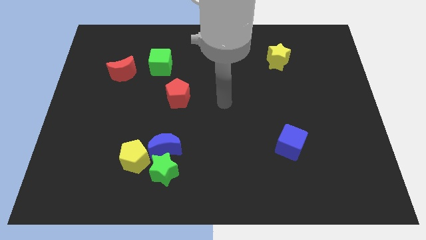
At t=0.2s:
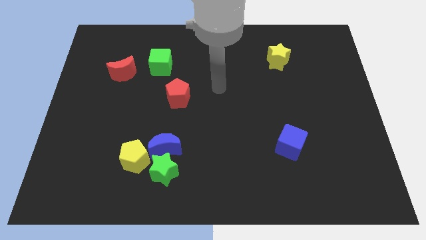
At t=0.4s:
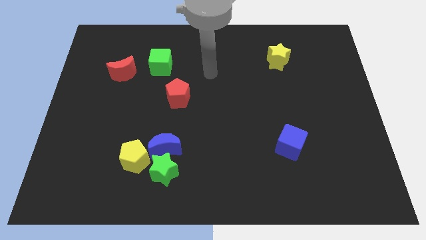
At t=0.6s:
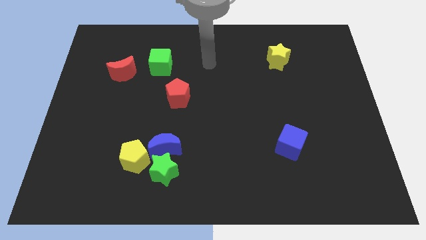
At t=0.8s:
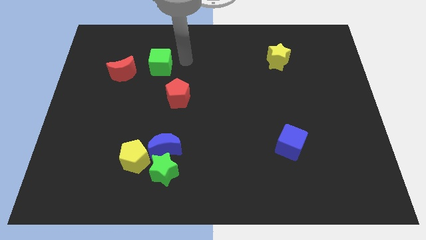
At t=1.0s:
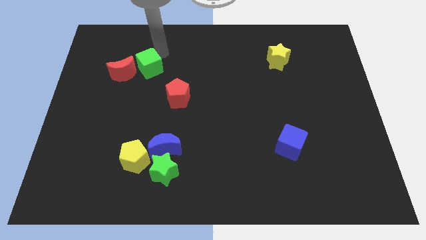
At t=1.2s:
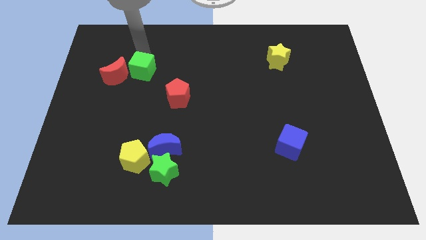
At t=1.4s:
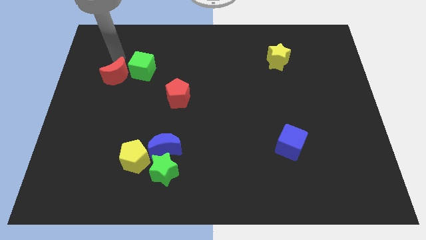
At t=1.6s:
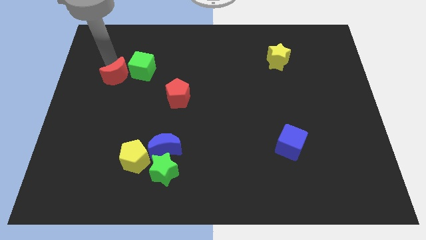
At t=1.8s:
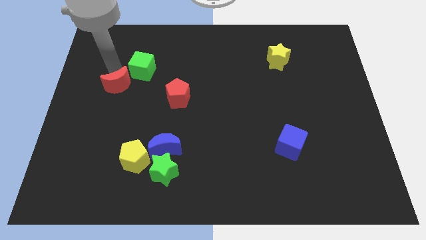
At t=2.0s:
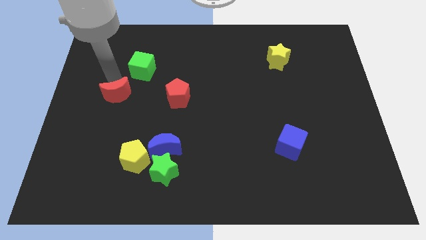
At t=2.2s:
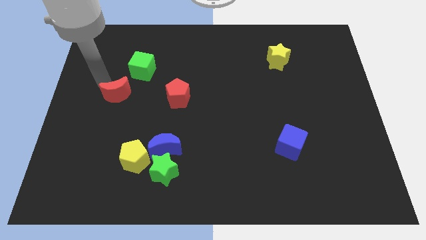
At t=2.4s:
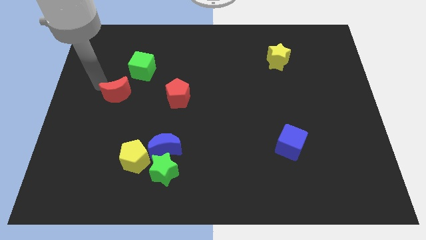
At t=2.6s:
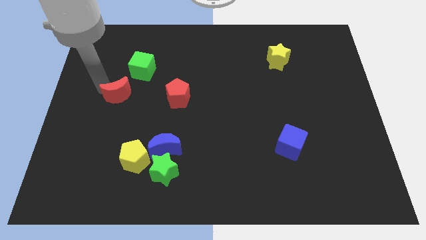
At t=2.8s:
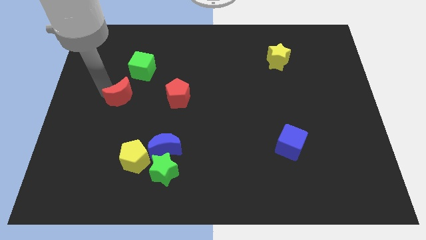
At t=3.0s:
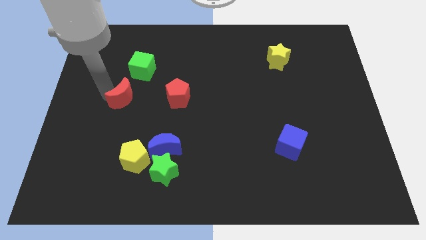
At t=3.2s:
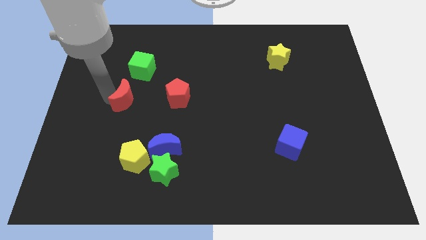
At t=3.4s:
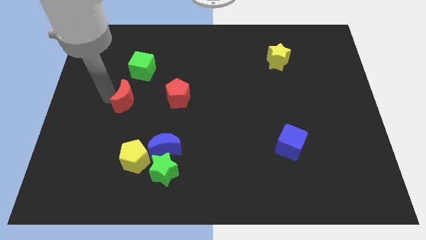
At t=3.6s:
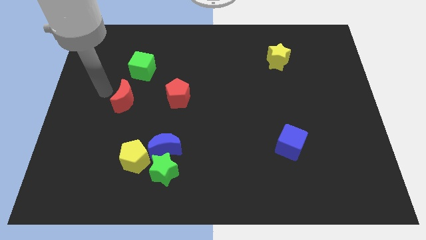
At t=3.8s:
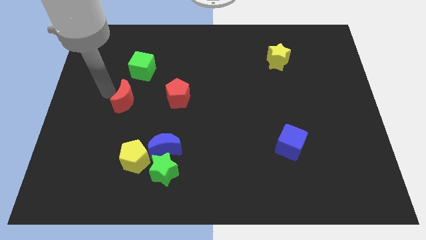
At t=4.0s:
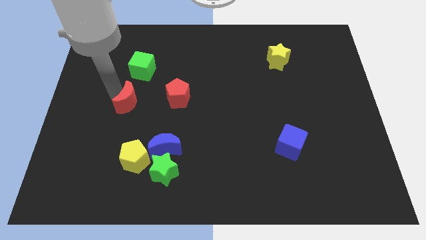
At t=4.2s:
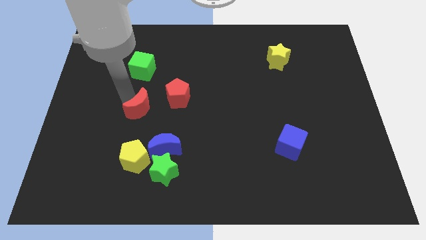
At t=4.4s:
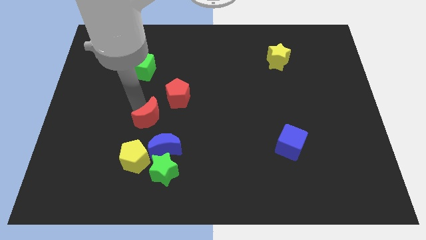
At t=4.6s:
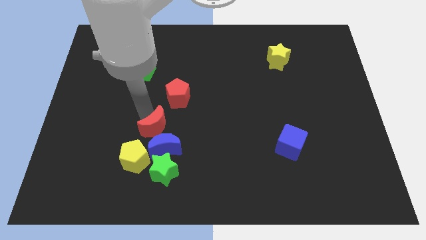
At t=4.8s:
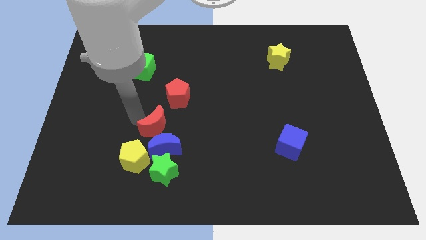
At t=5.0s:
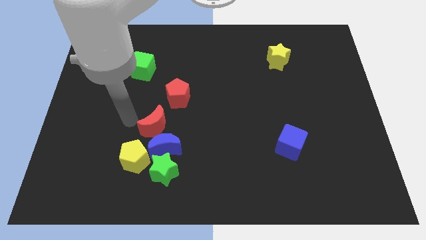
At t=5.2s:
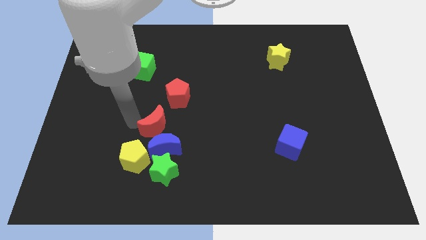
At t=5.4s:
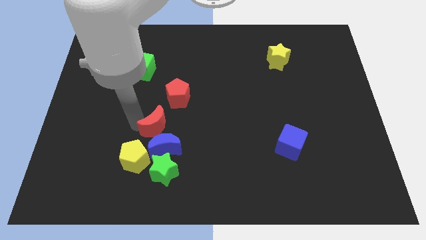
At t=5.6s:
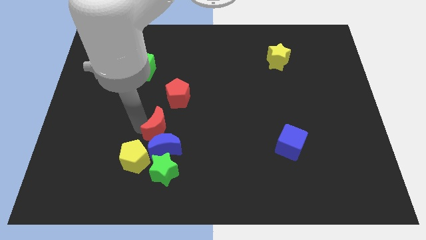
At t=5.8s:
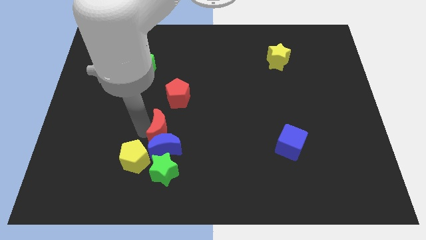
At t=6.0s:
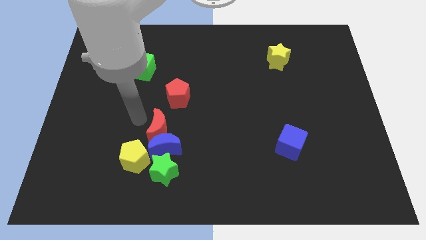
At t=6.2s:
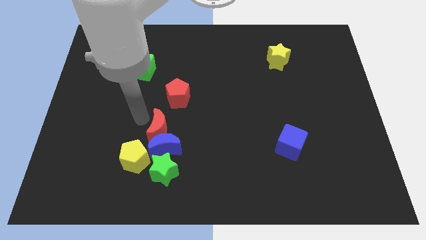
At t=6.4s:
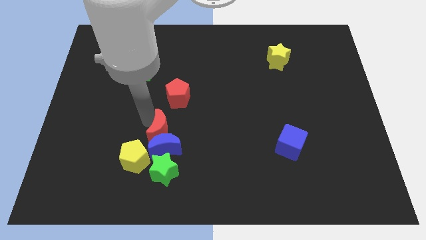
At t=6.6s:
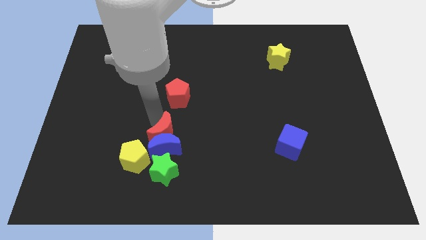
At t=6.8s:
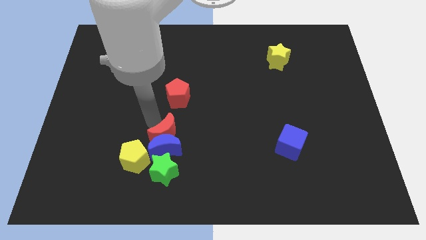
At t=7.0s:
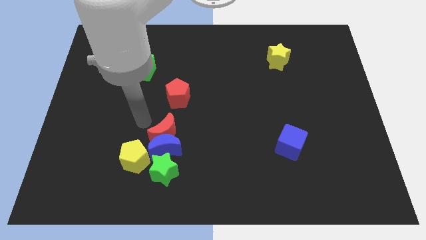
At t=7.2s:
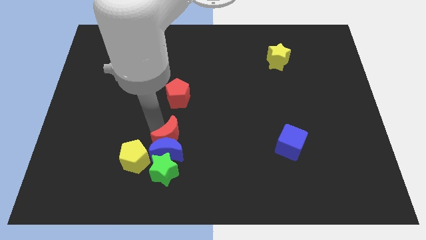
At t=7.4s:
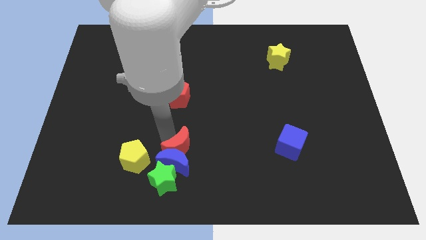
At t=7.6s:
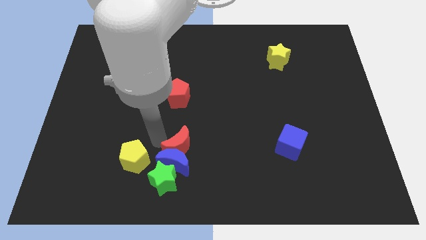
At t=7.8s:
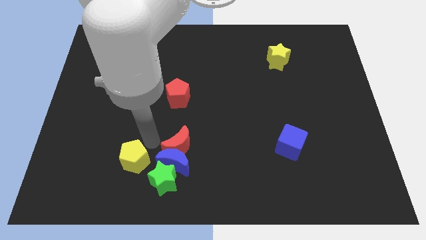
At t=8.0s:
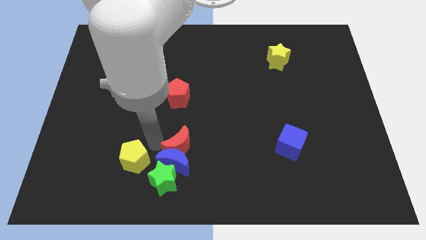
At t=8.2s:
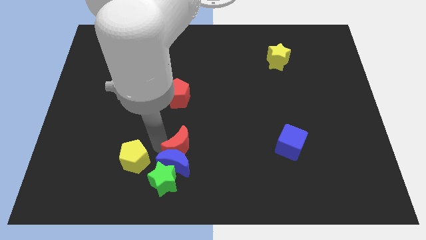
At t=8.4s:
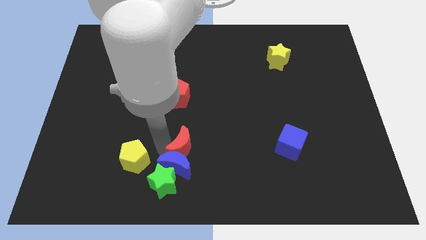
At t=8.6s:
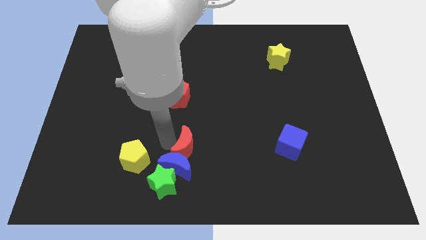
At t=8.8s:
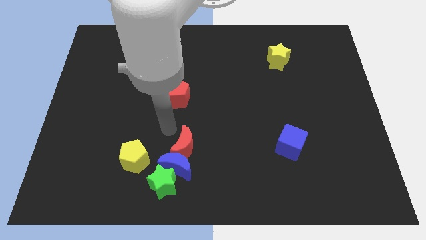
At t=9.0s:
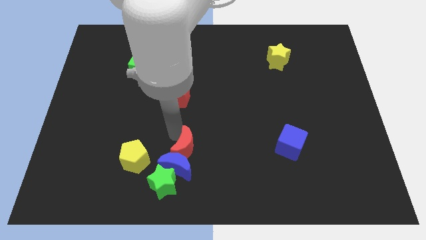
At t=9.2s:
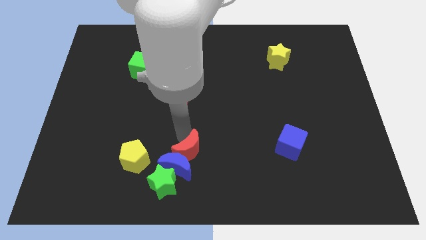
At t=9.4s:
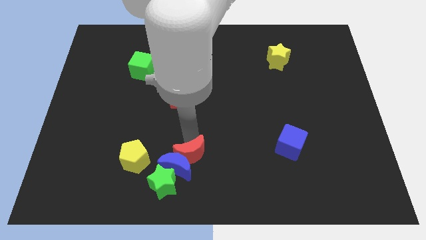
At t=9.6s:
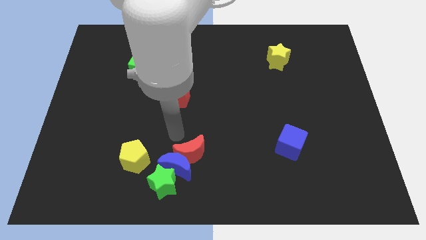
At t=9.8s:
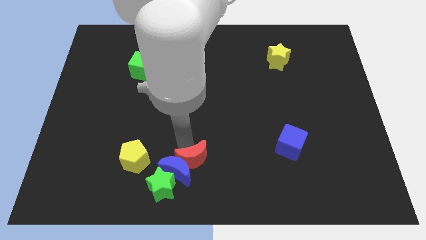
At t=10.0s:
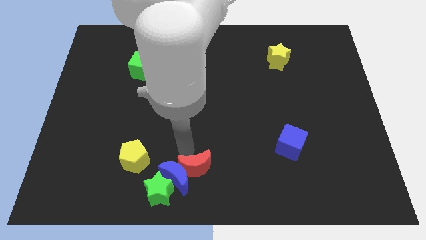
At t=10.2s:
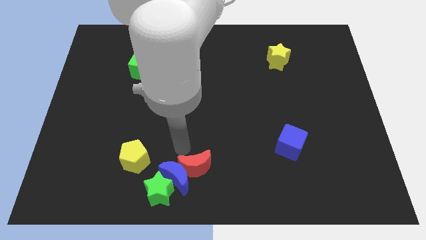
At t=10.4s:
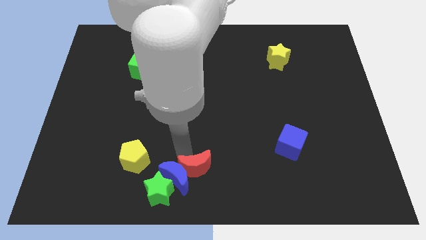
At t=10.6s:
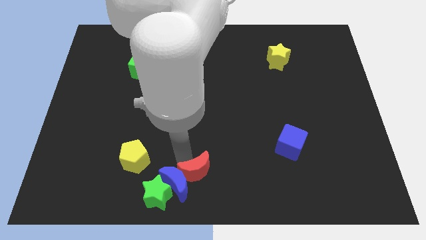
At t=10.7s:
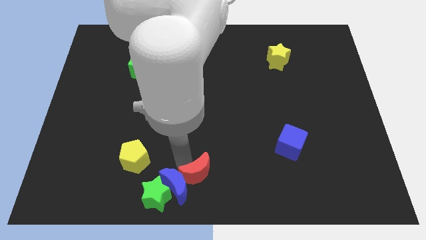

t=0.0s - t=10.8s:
push the red moon just right of the green star

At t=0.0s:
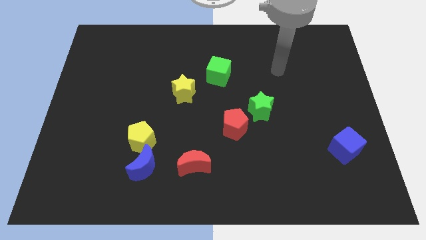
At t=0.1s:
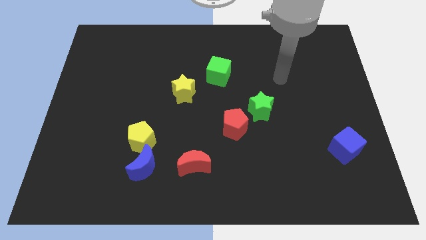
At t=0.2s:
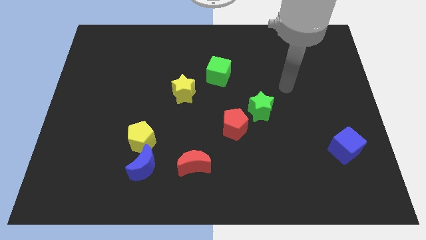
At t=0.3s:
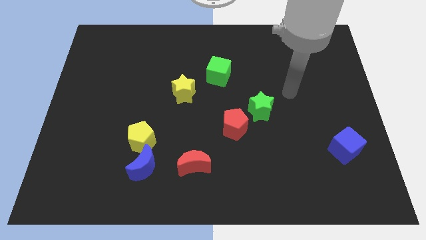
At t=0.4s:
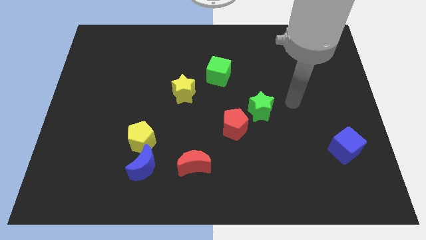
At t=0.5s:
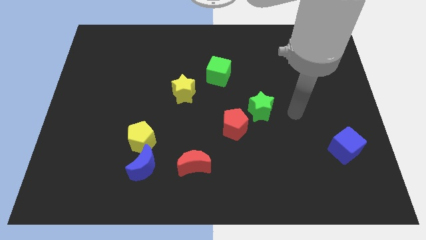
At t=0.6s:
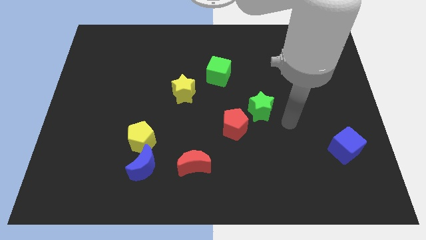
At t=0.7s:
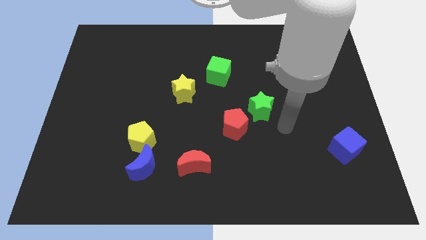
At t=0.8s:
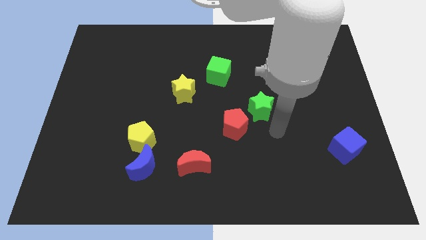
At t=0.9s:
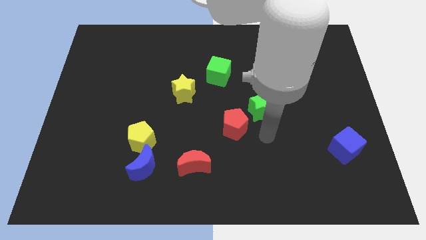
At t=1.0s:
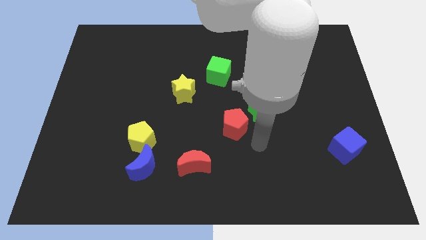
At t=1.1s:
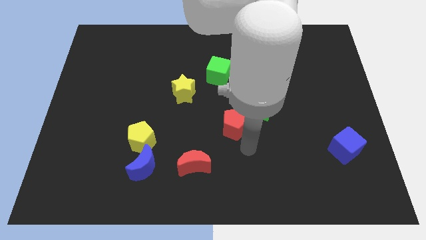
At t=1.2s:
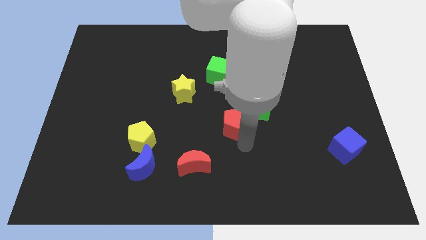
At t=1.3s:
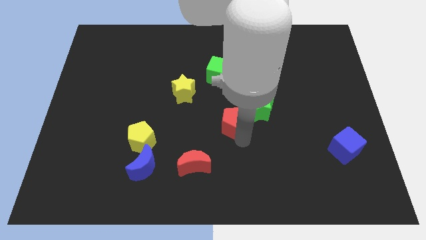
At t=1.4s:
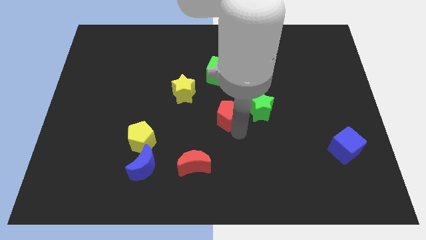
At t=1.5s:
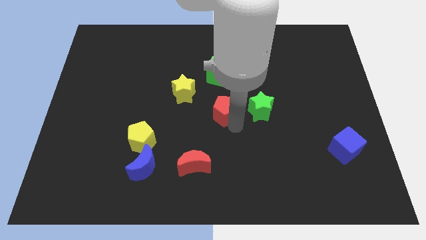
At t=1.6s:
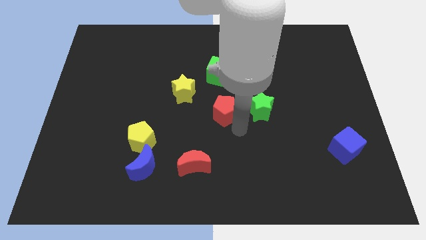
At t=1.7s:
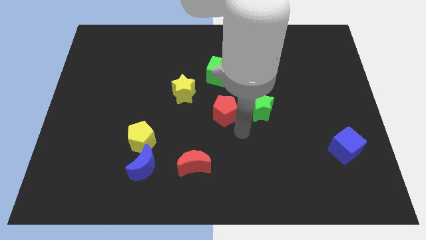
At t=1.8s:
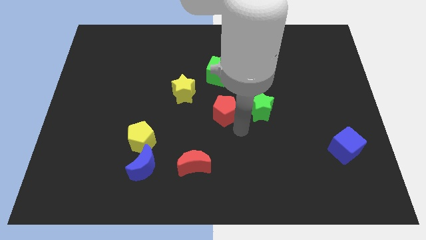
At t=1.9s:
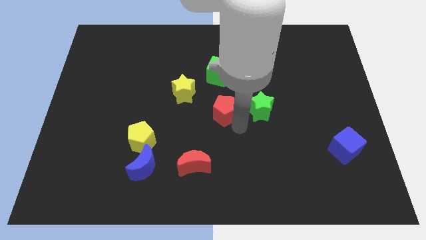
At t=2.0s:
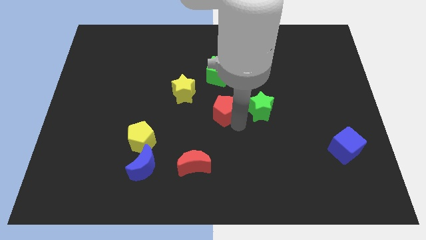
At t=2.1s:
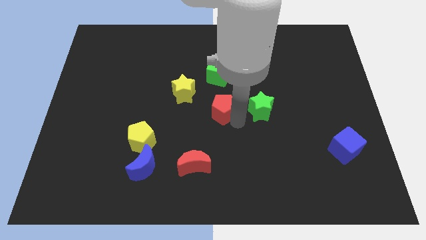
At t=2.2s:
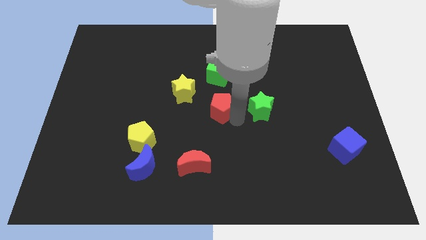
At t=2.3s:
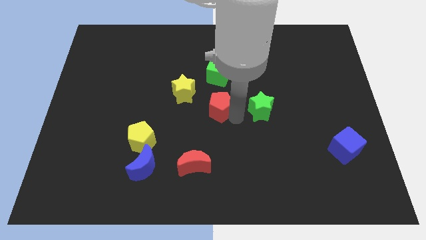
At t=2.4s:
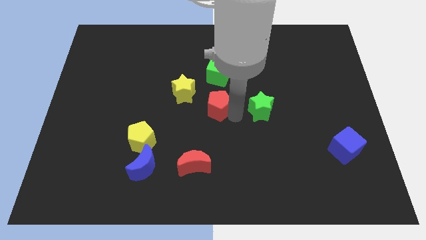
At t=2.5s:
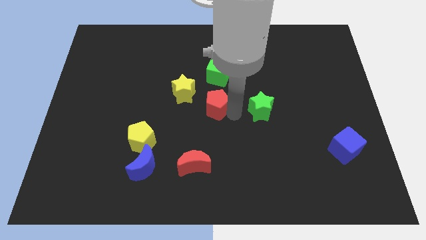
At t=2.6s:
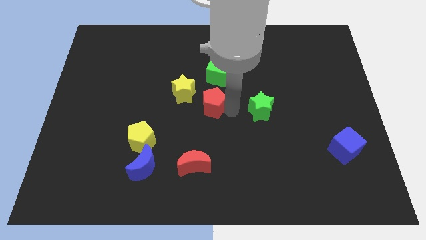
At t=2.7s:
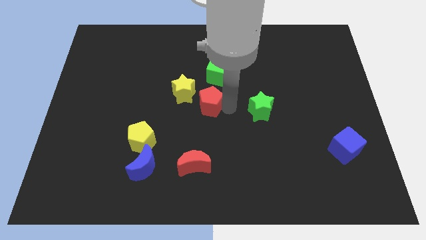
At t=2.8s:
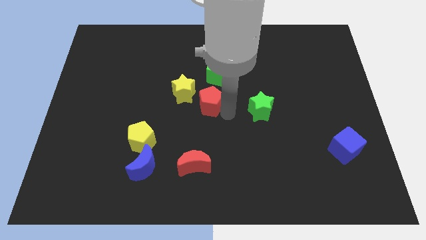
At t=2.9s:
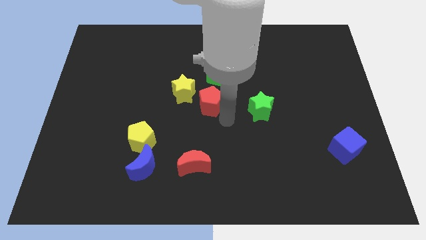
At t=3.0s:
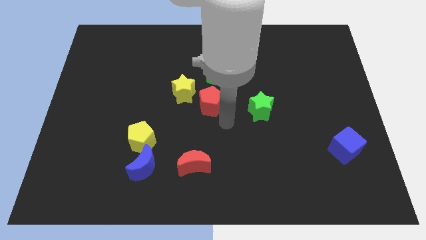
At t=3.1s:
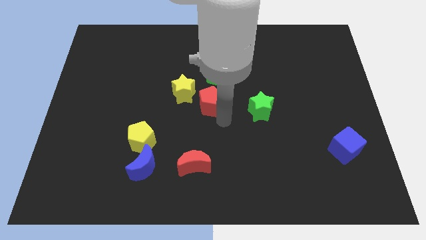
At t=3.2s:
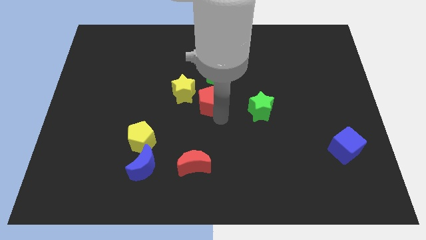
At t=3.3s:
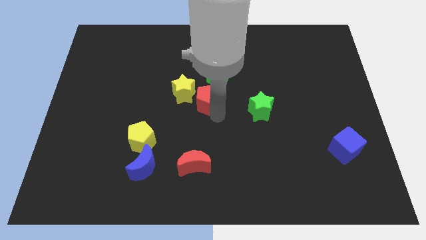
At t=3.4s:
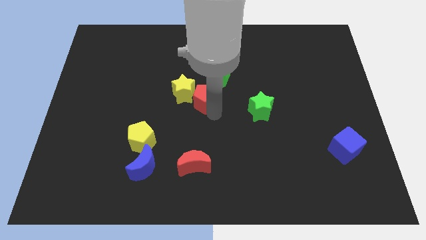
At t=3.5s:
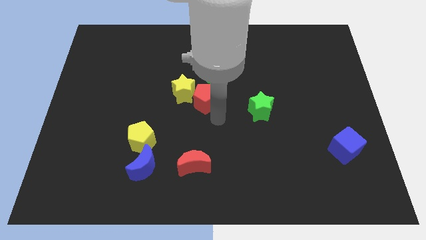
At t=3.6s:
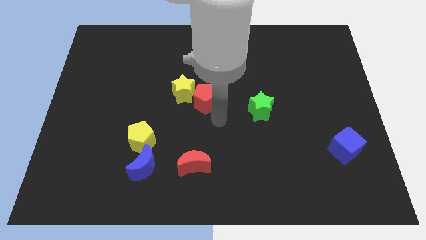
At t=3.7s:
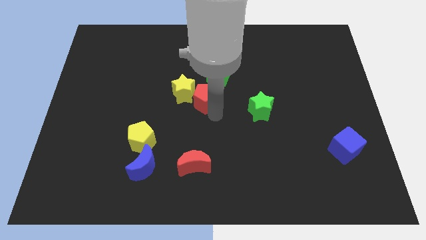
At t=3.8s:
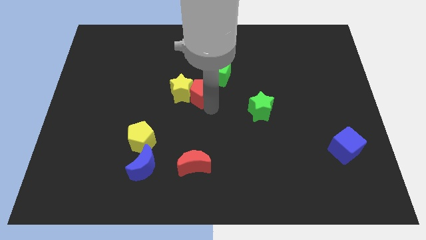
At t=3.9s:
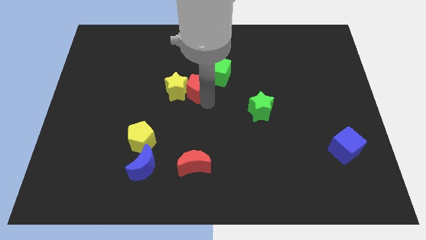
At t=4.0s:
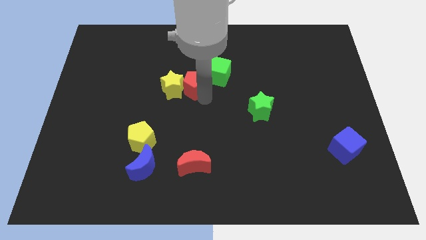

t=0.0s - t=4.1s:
push the red pentagon left of the green cube
